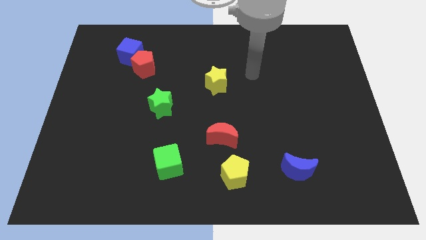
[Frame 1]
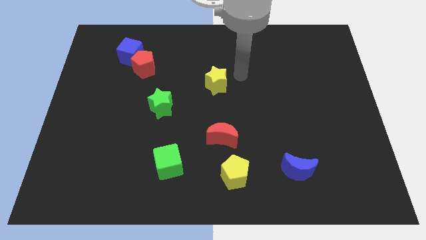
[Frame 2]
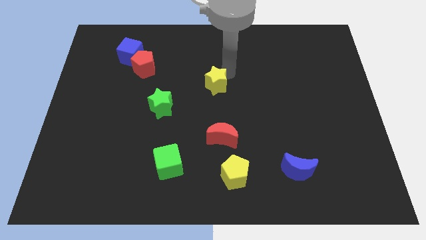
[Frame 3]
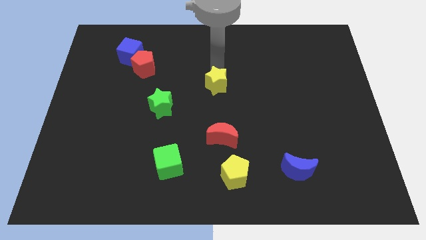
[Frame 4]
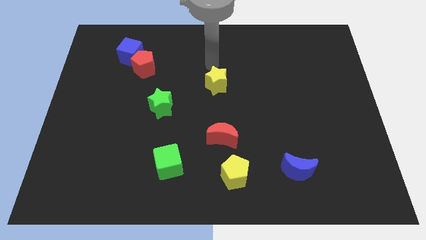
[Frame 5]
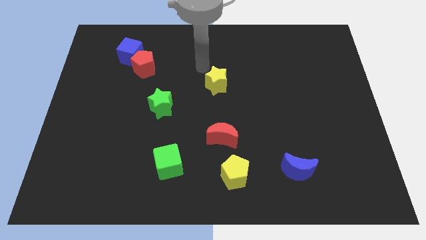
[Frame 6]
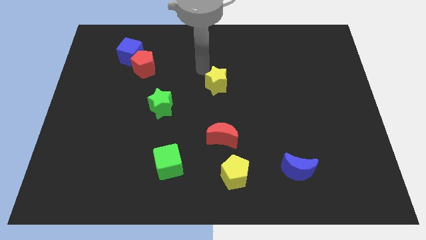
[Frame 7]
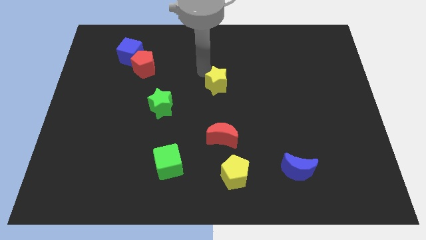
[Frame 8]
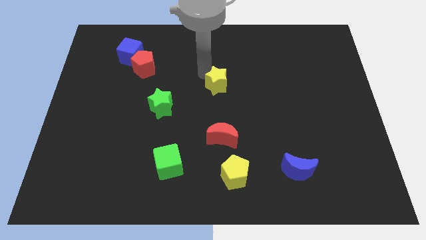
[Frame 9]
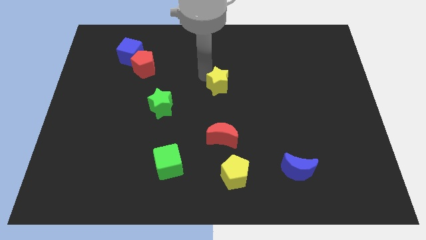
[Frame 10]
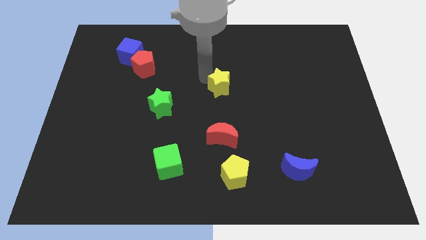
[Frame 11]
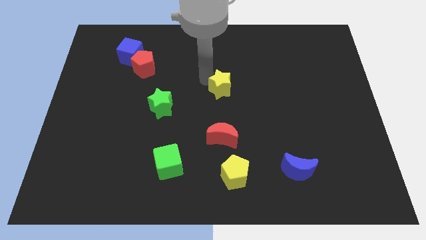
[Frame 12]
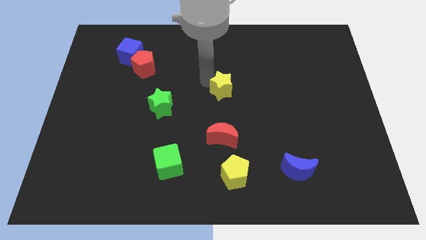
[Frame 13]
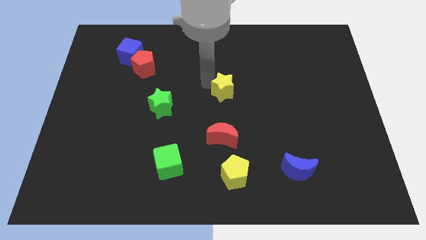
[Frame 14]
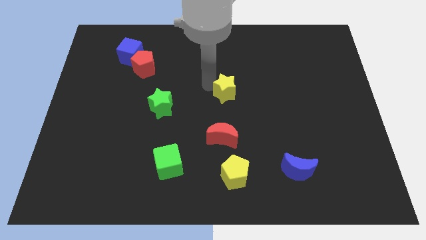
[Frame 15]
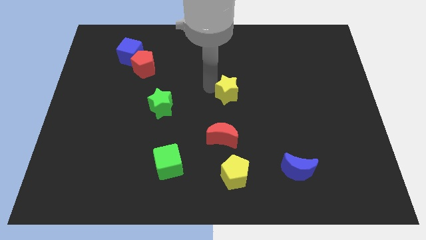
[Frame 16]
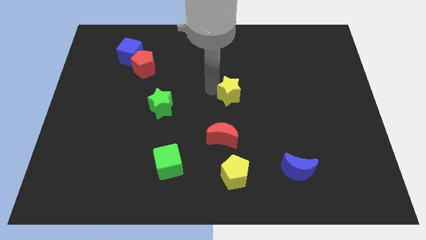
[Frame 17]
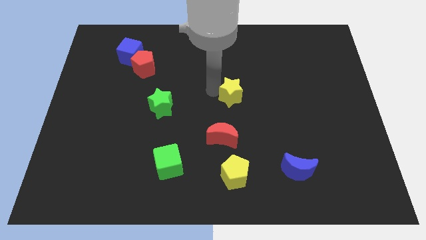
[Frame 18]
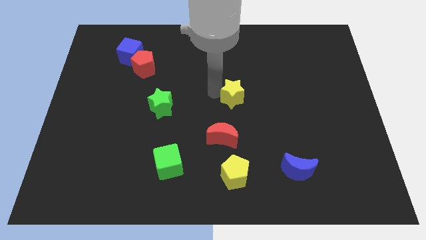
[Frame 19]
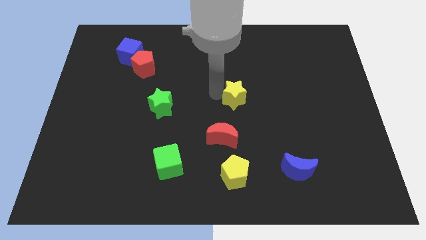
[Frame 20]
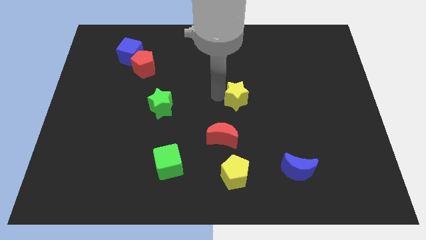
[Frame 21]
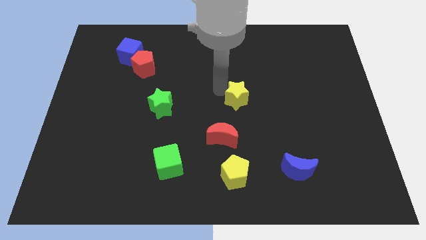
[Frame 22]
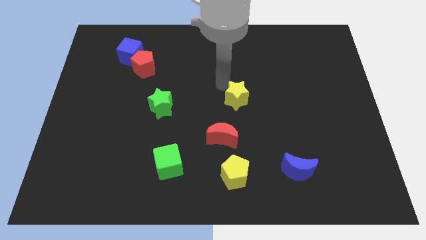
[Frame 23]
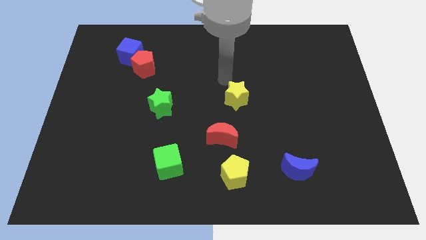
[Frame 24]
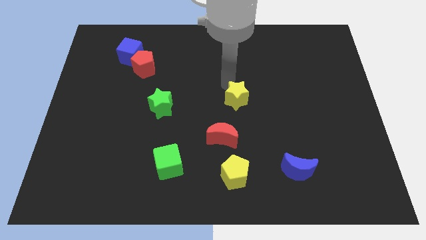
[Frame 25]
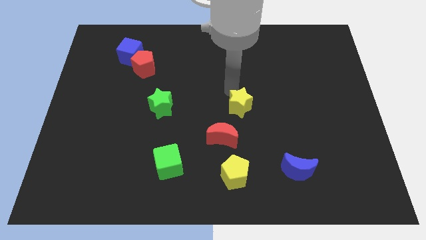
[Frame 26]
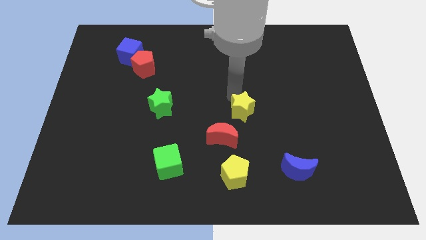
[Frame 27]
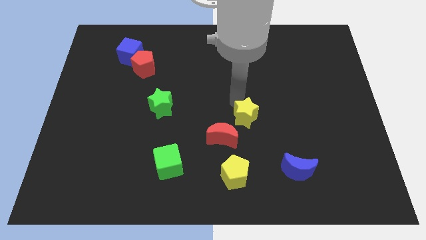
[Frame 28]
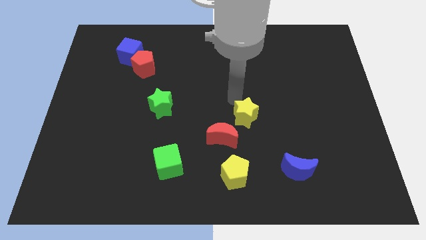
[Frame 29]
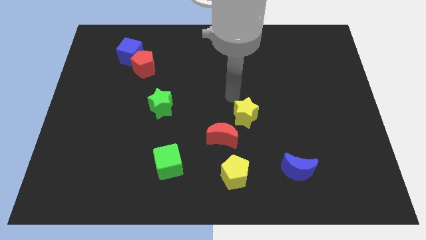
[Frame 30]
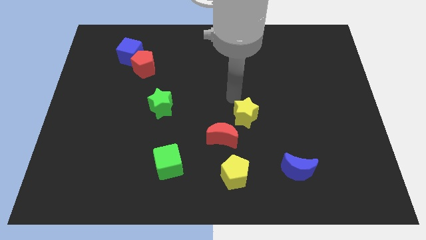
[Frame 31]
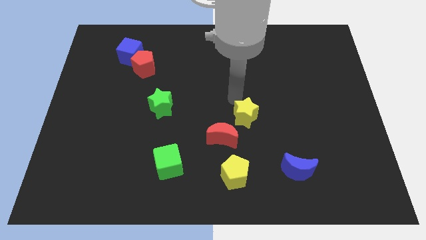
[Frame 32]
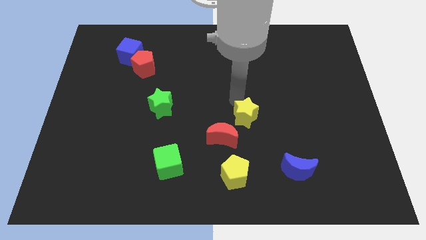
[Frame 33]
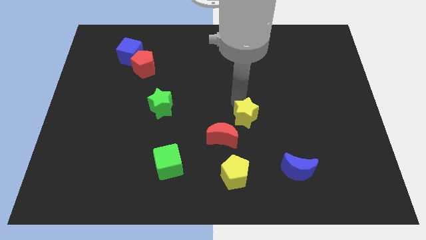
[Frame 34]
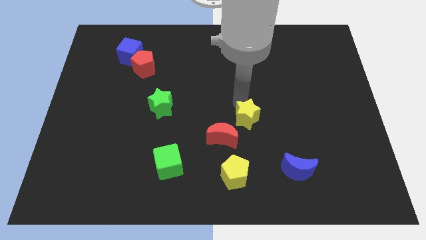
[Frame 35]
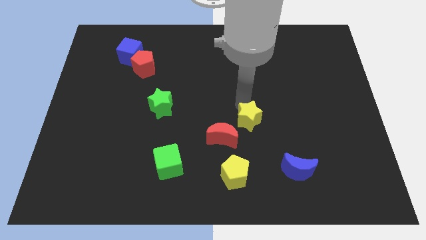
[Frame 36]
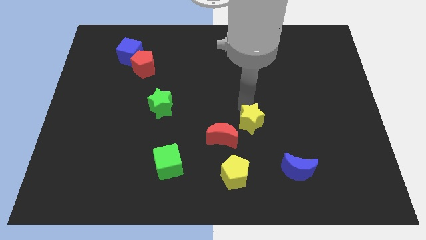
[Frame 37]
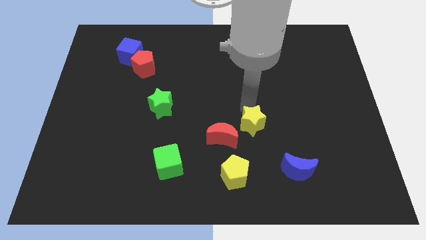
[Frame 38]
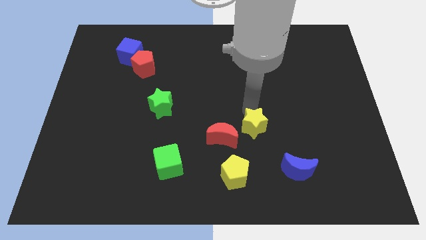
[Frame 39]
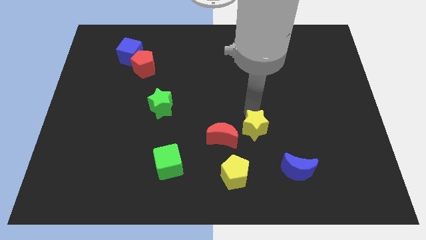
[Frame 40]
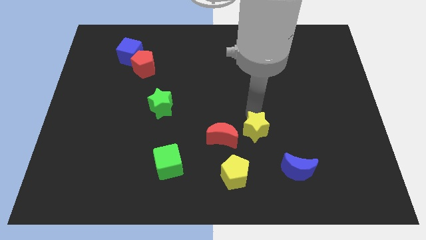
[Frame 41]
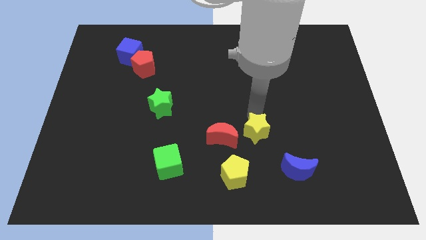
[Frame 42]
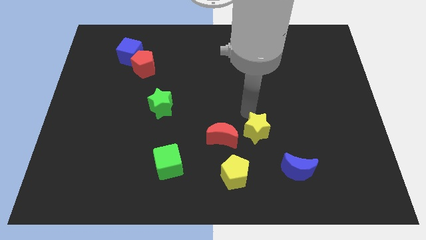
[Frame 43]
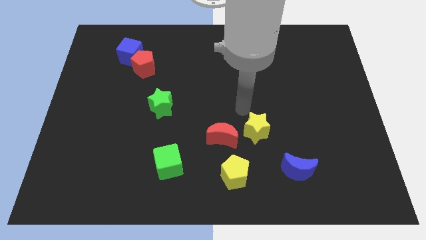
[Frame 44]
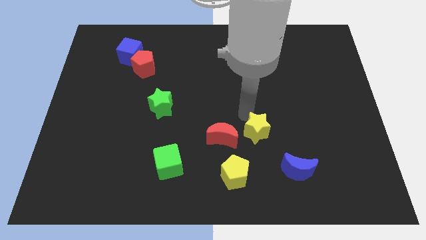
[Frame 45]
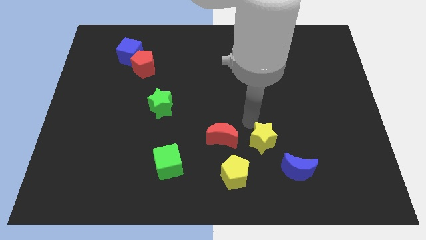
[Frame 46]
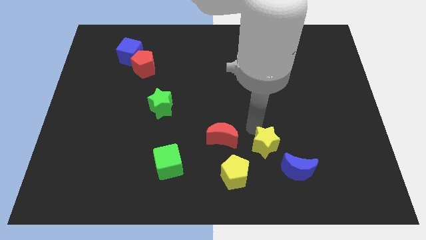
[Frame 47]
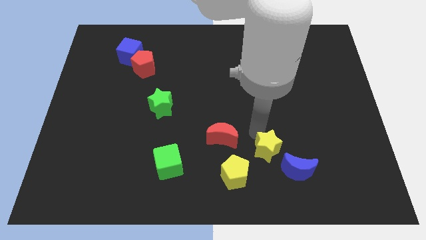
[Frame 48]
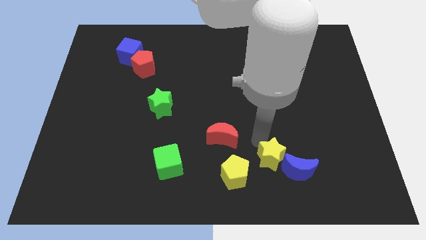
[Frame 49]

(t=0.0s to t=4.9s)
put the yellow star next to the blue moon

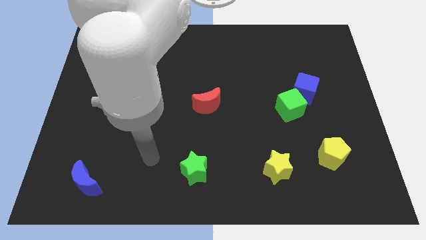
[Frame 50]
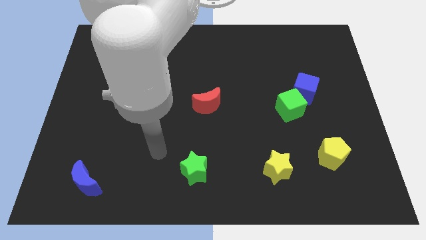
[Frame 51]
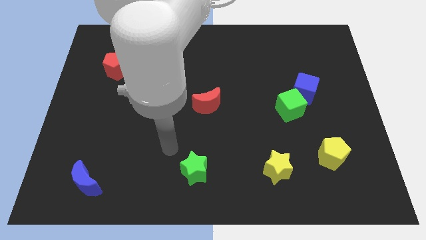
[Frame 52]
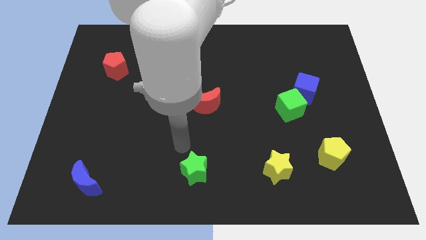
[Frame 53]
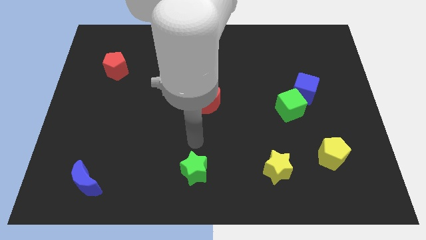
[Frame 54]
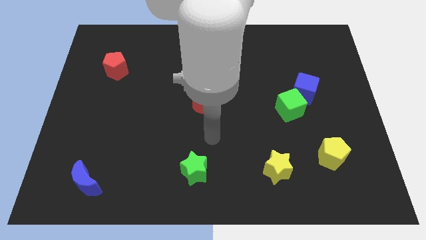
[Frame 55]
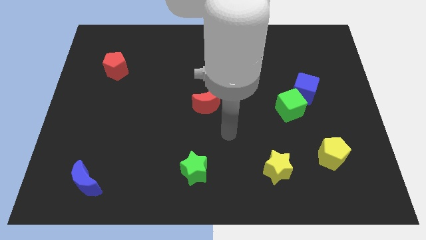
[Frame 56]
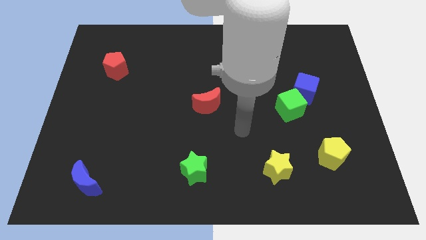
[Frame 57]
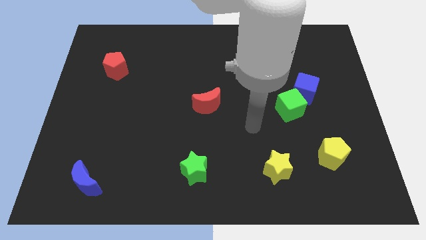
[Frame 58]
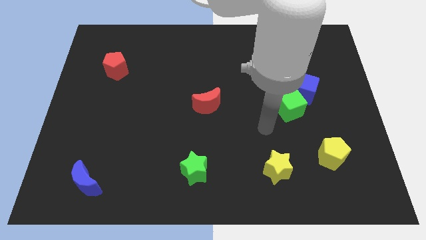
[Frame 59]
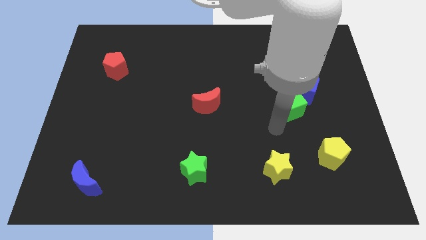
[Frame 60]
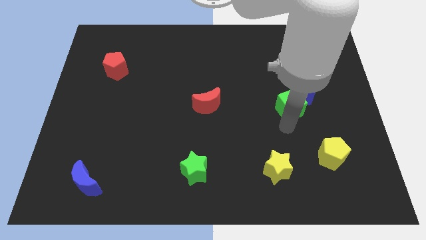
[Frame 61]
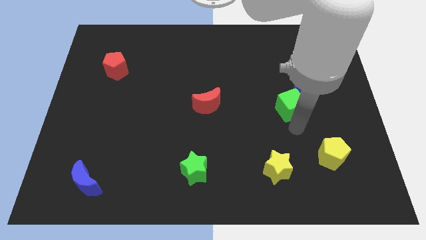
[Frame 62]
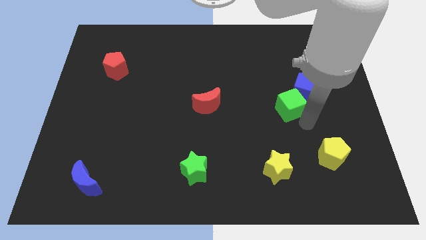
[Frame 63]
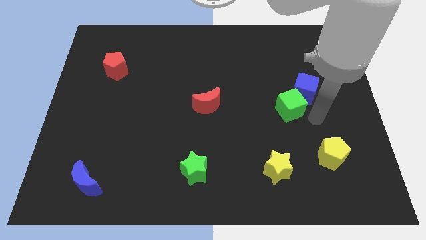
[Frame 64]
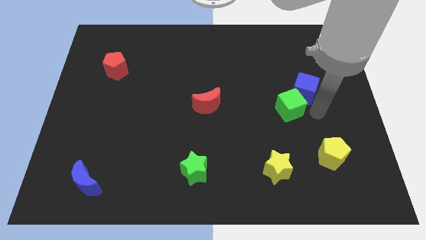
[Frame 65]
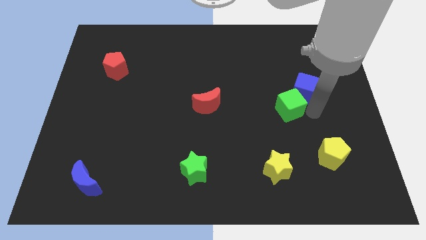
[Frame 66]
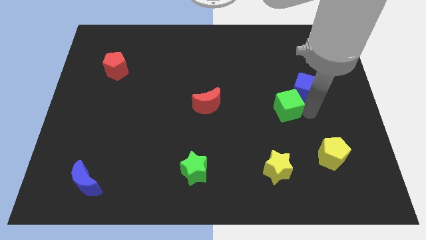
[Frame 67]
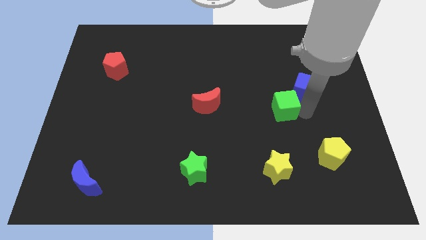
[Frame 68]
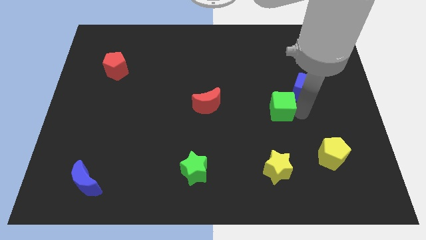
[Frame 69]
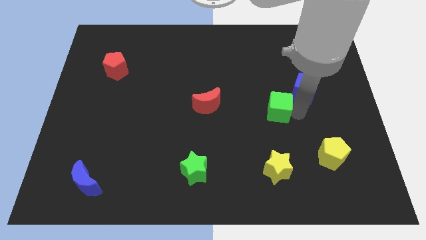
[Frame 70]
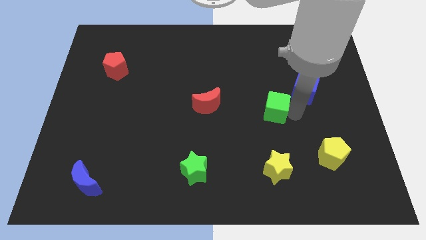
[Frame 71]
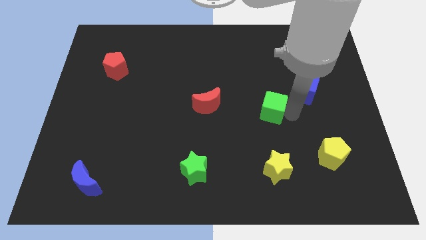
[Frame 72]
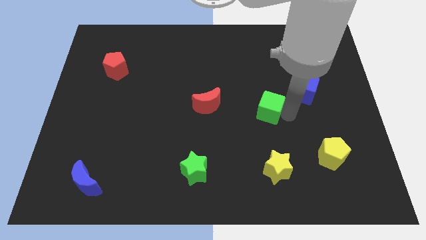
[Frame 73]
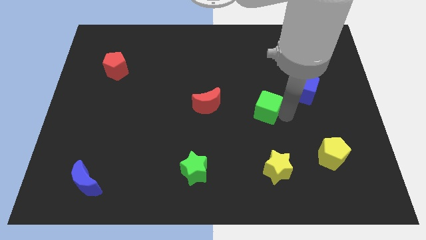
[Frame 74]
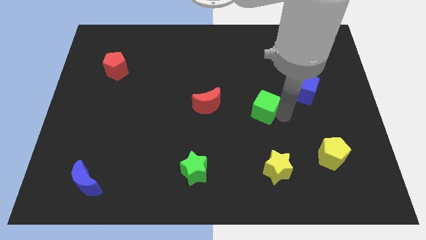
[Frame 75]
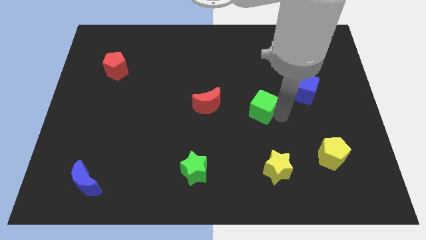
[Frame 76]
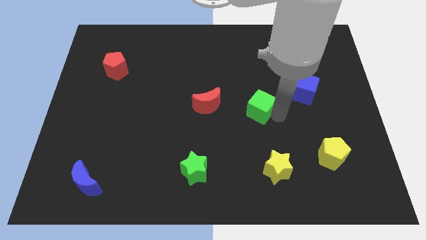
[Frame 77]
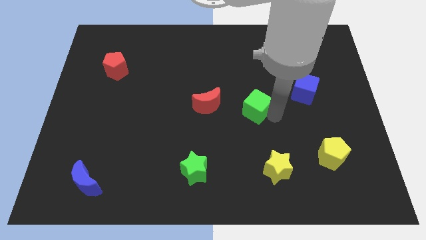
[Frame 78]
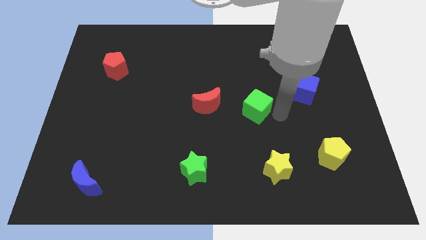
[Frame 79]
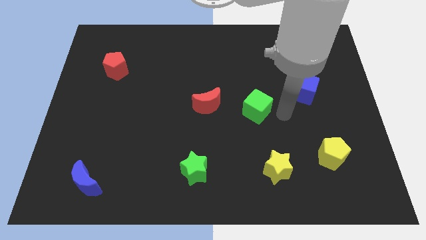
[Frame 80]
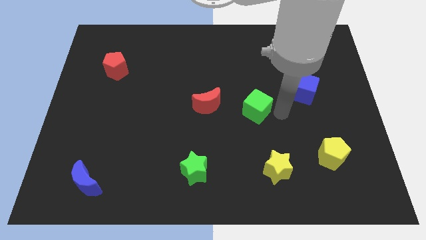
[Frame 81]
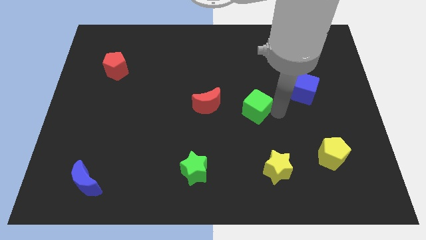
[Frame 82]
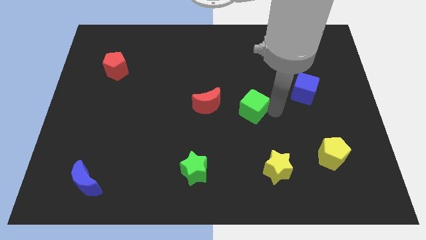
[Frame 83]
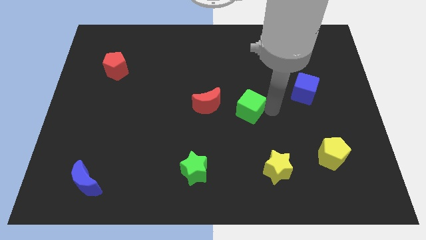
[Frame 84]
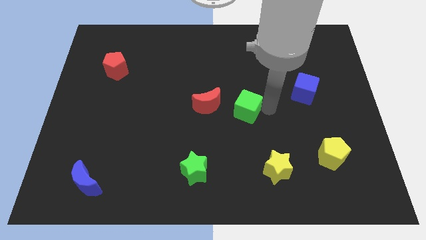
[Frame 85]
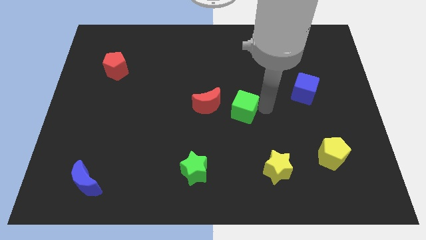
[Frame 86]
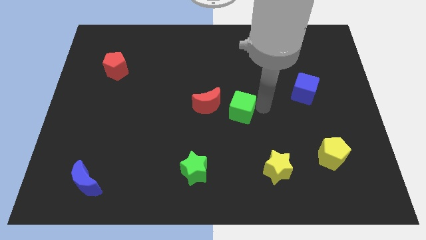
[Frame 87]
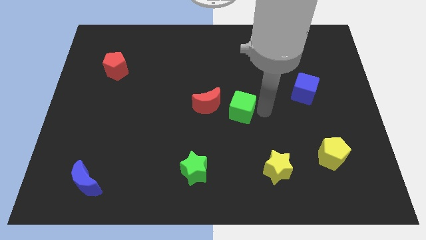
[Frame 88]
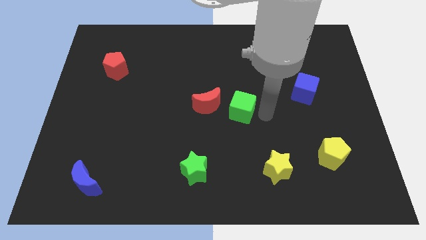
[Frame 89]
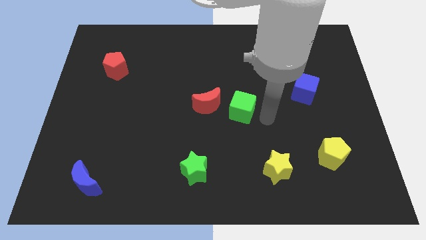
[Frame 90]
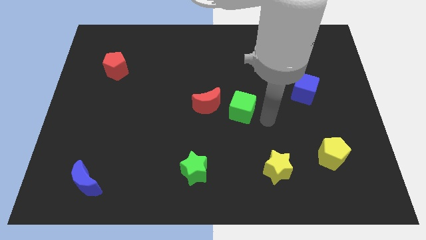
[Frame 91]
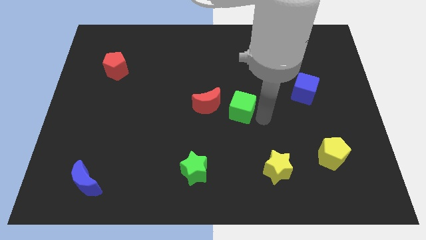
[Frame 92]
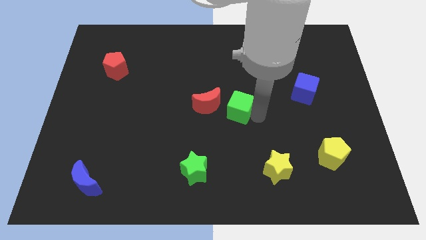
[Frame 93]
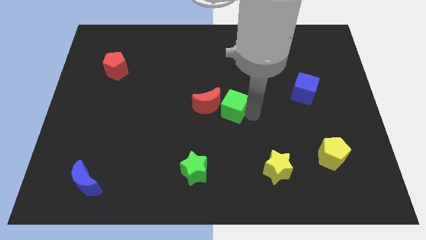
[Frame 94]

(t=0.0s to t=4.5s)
move the green cube next to the red moon
